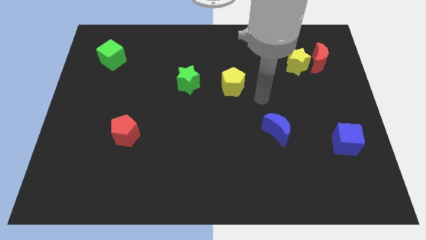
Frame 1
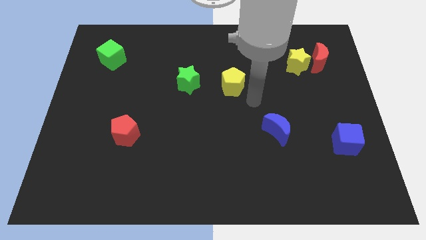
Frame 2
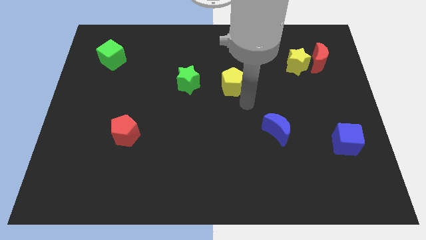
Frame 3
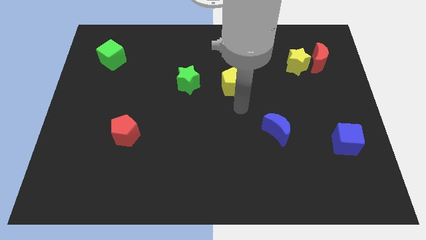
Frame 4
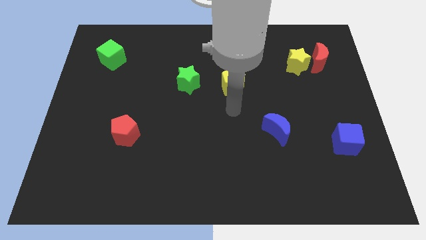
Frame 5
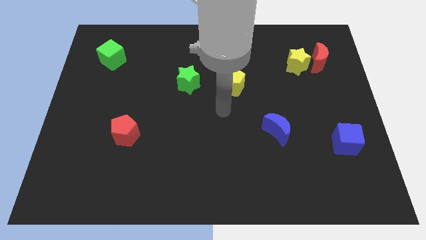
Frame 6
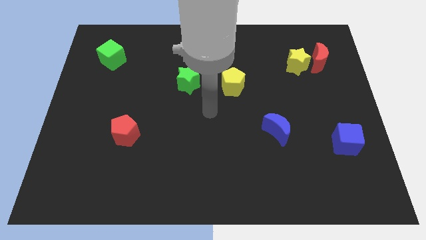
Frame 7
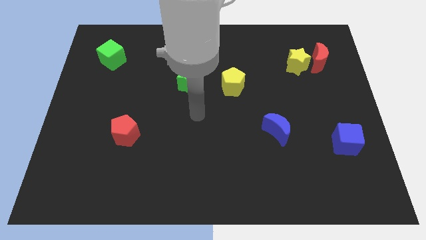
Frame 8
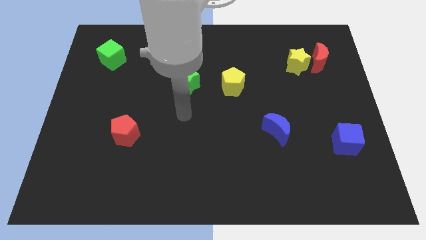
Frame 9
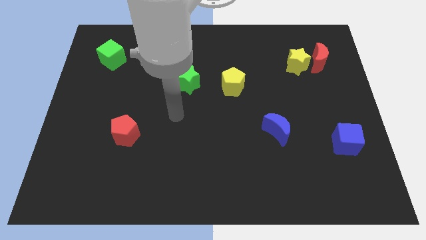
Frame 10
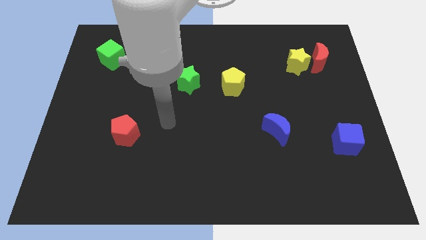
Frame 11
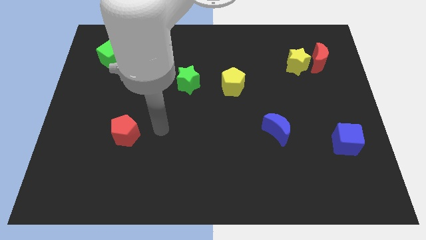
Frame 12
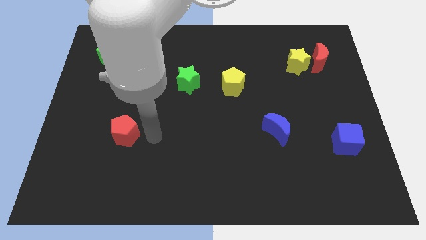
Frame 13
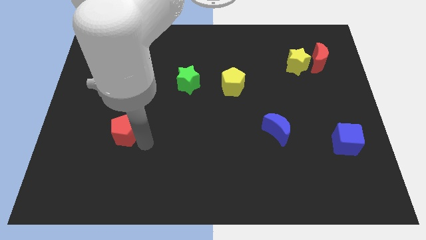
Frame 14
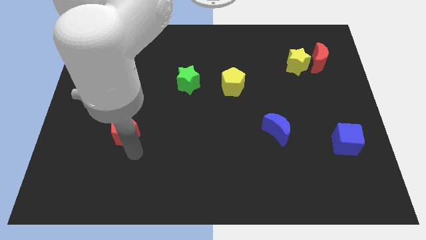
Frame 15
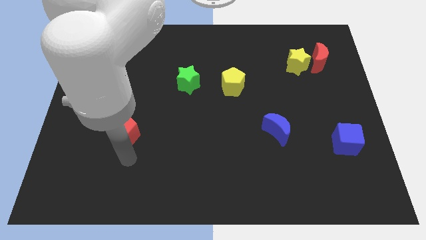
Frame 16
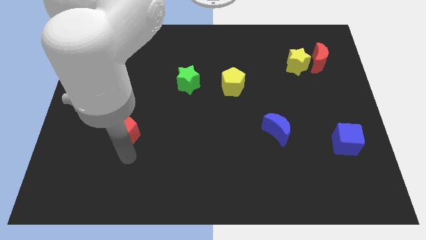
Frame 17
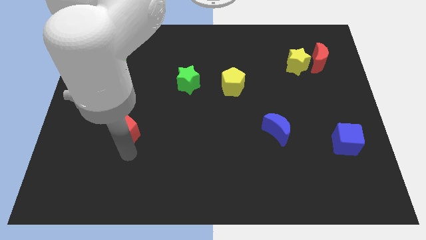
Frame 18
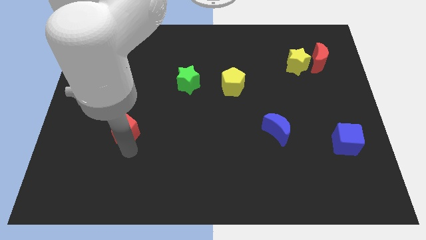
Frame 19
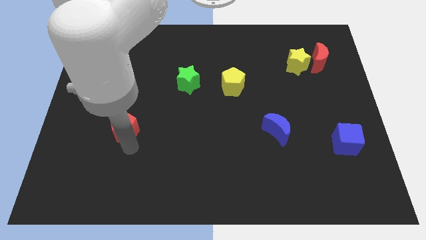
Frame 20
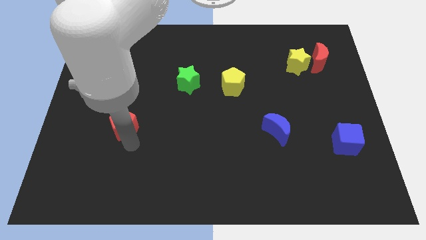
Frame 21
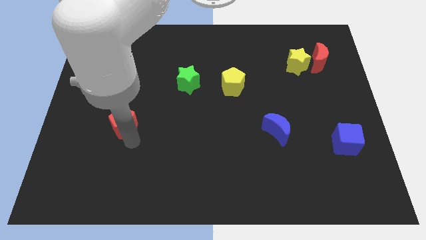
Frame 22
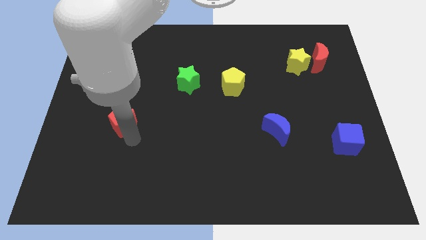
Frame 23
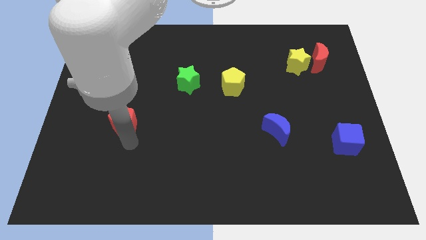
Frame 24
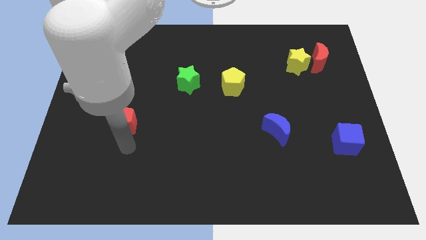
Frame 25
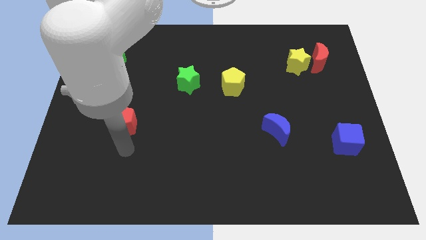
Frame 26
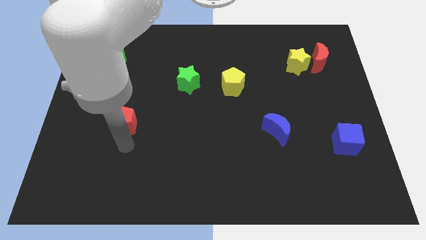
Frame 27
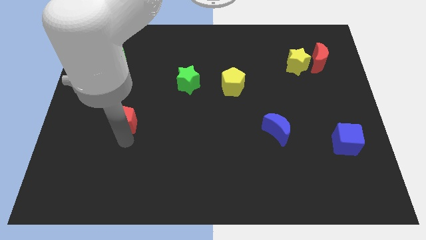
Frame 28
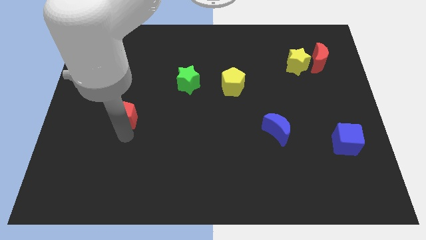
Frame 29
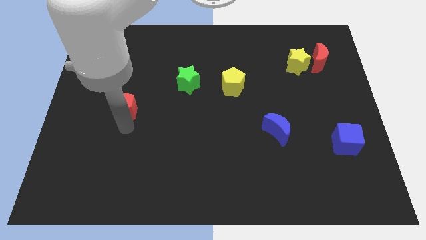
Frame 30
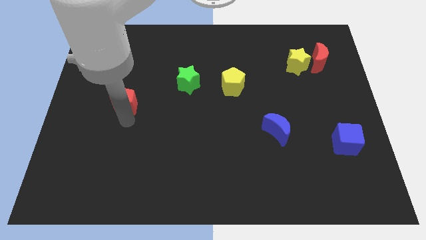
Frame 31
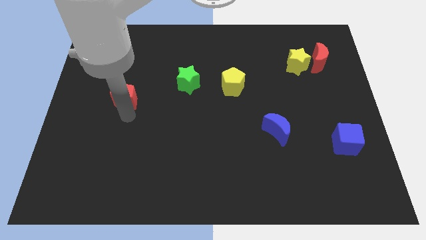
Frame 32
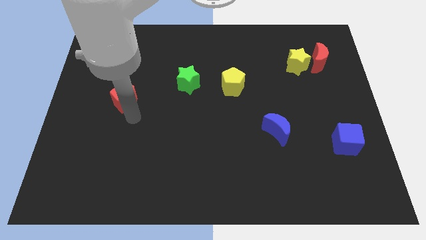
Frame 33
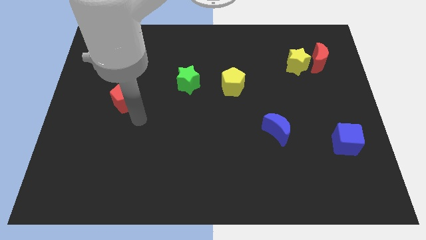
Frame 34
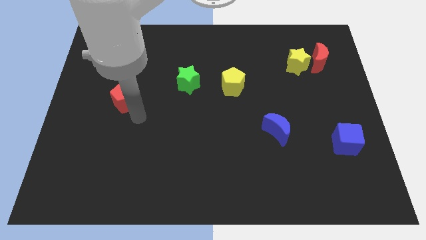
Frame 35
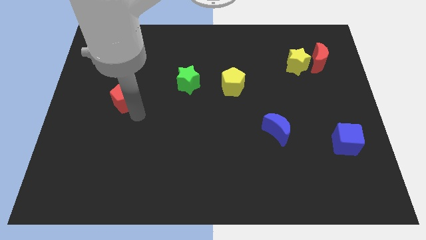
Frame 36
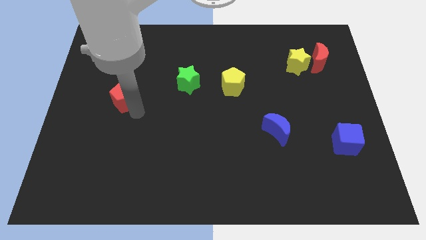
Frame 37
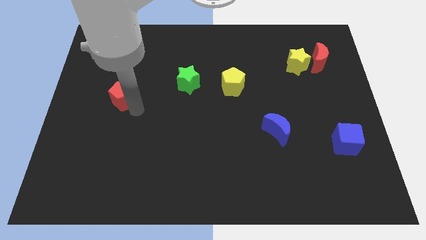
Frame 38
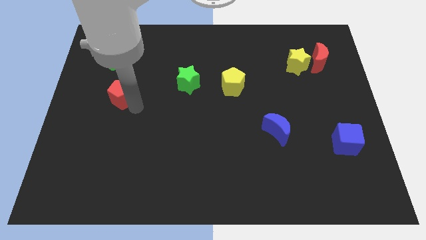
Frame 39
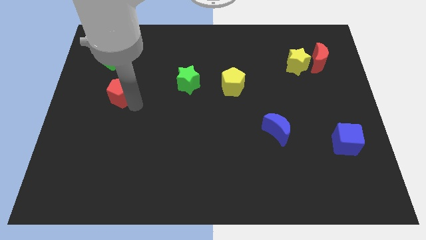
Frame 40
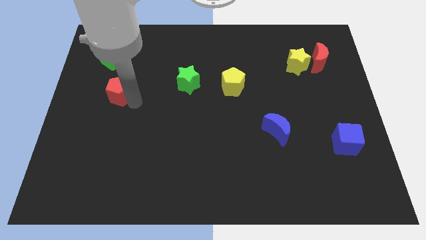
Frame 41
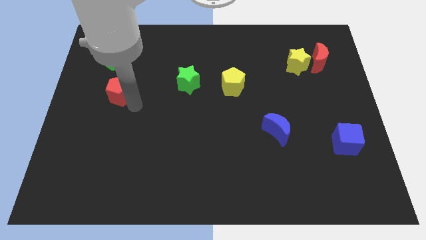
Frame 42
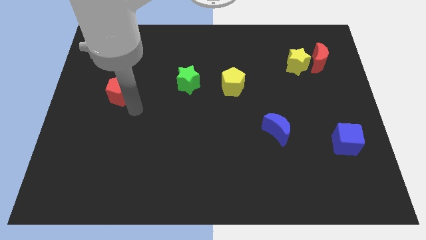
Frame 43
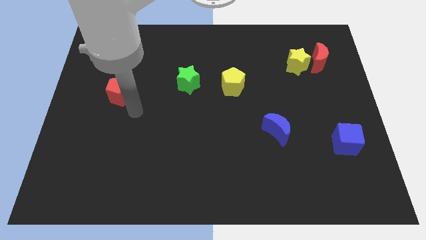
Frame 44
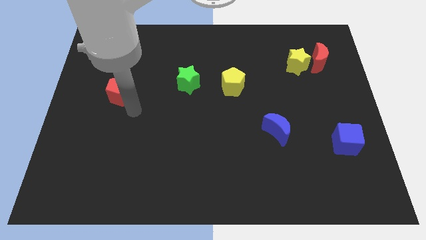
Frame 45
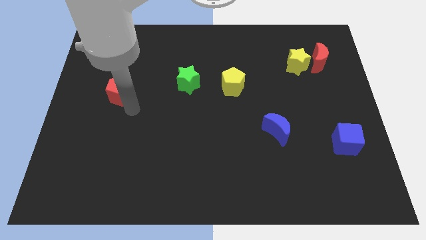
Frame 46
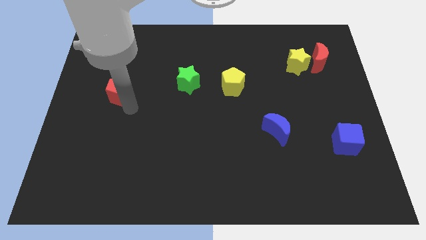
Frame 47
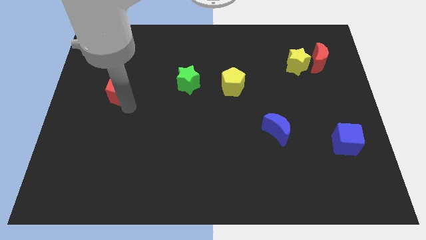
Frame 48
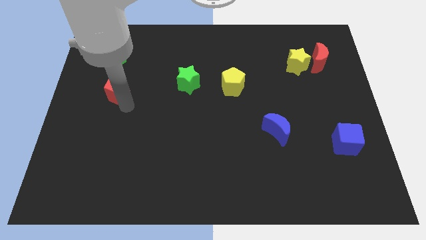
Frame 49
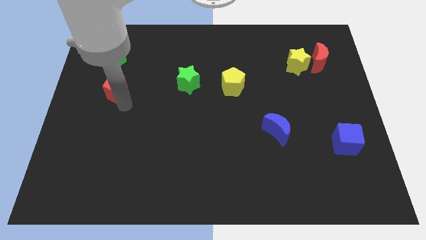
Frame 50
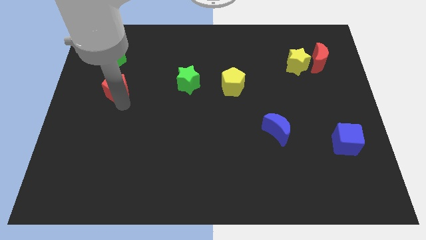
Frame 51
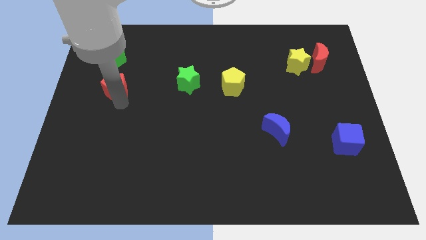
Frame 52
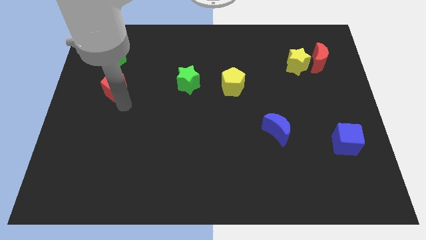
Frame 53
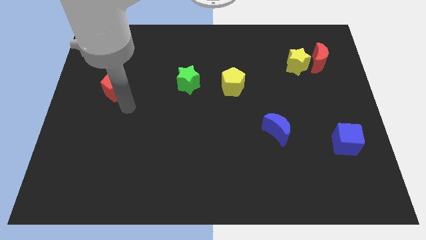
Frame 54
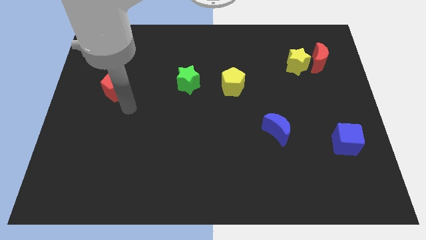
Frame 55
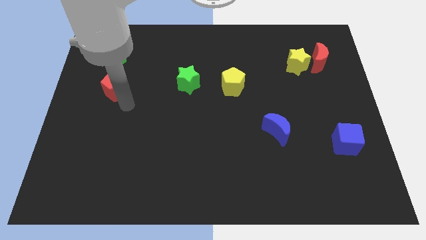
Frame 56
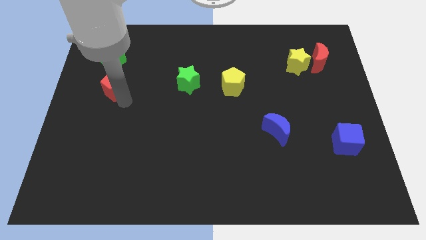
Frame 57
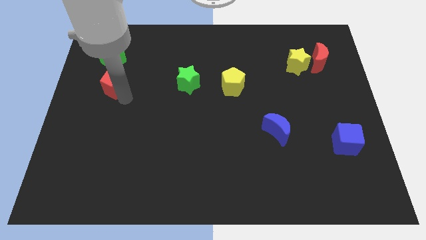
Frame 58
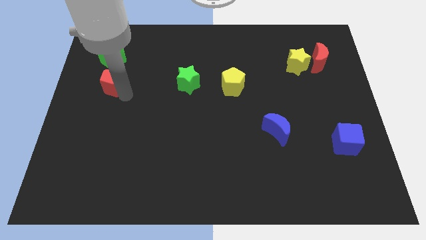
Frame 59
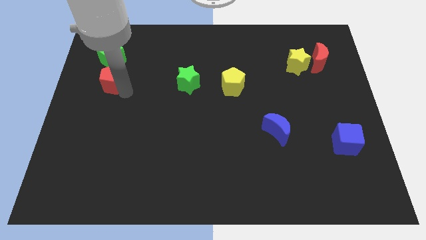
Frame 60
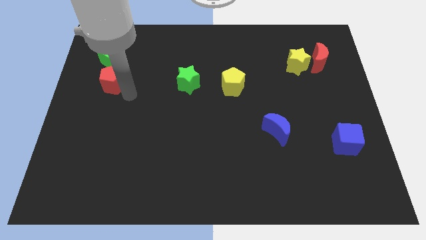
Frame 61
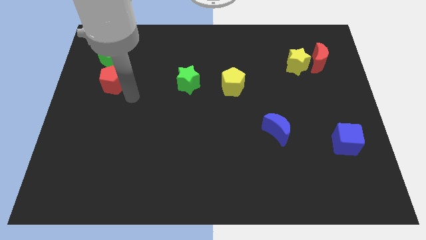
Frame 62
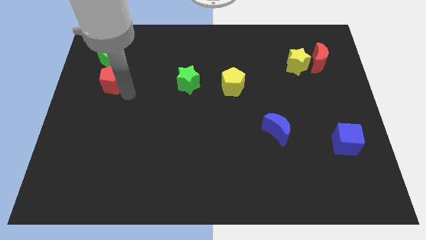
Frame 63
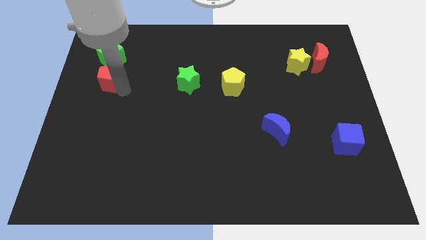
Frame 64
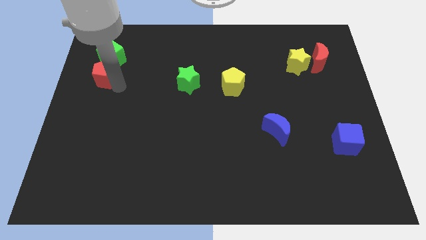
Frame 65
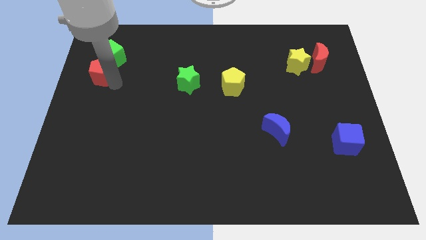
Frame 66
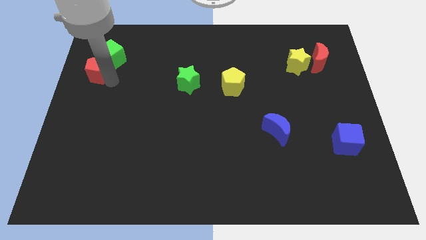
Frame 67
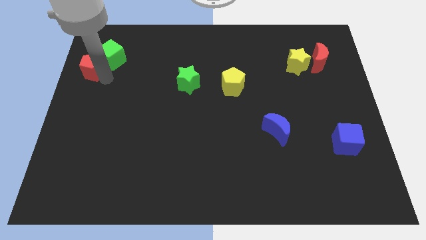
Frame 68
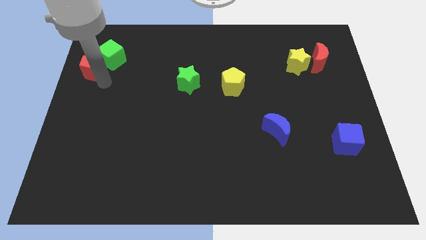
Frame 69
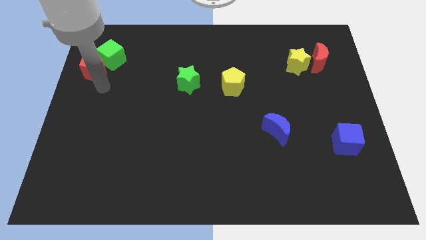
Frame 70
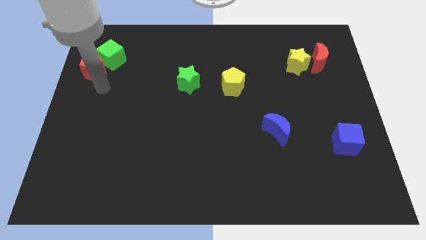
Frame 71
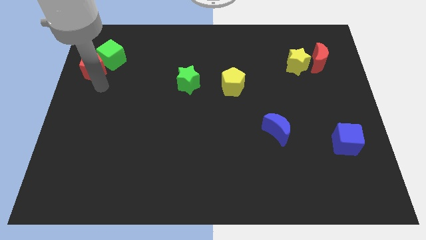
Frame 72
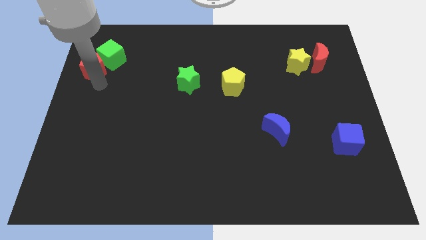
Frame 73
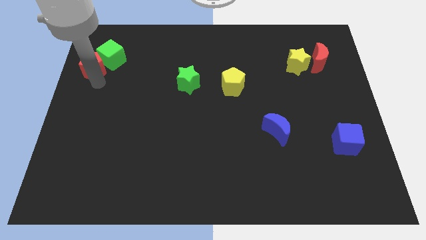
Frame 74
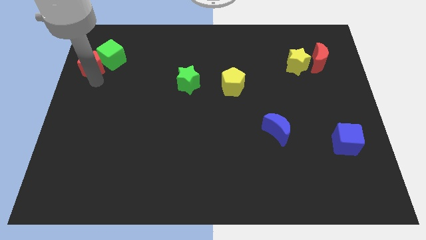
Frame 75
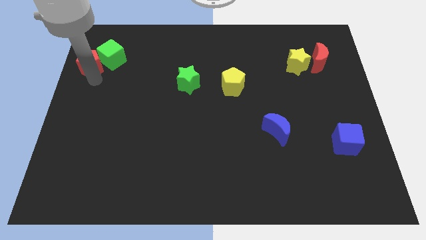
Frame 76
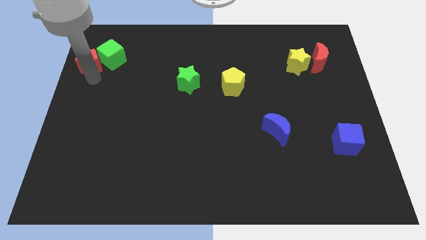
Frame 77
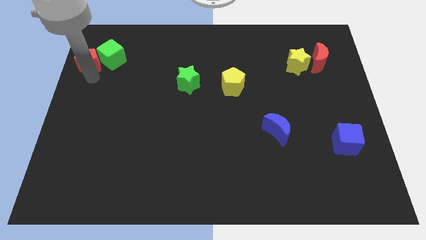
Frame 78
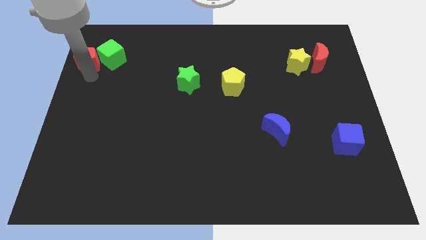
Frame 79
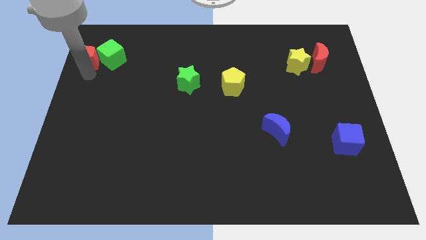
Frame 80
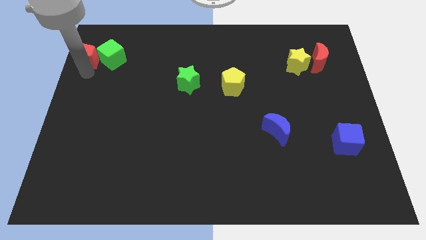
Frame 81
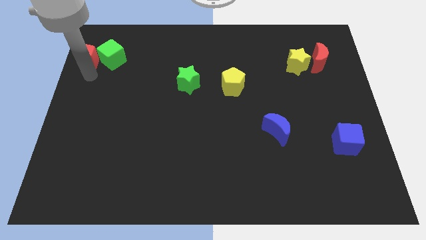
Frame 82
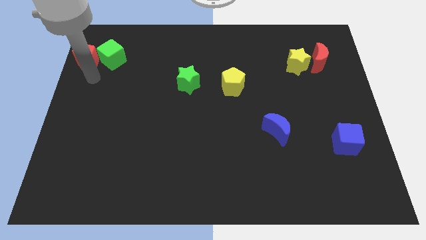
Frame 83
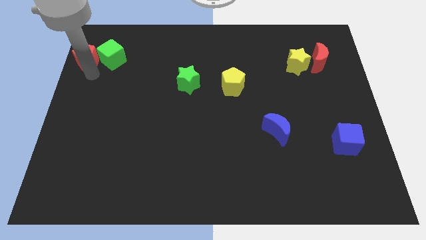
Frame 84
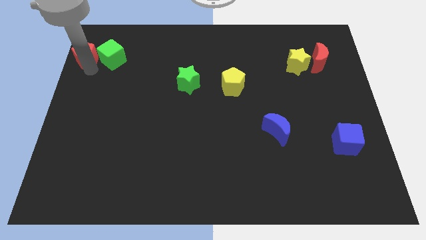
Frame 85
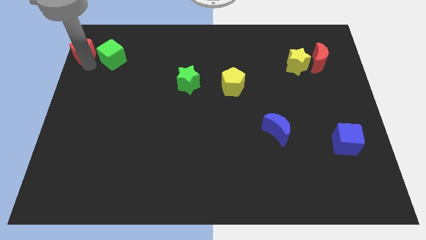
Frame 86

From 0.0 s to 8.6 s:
put the red pentagon to the top left corner
